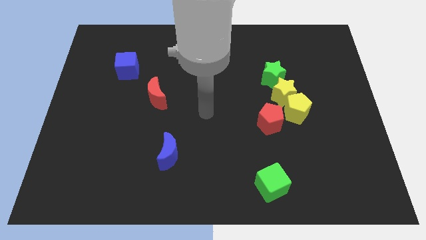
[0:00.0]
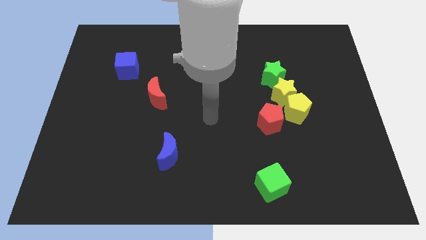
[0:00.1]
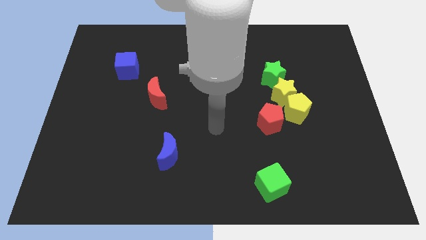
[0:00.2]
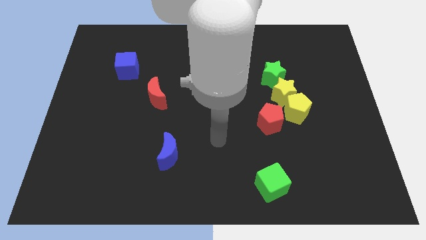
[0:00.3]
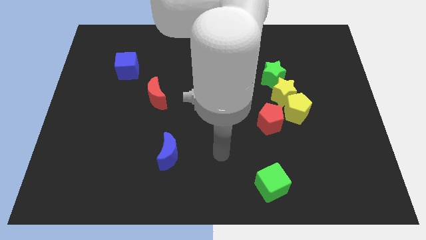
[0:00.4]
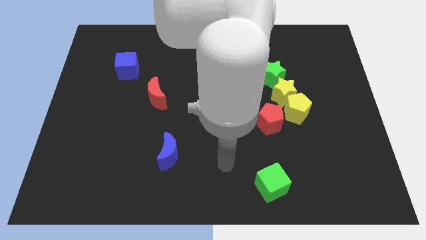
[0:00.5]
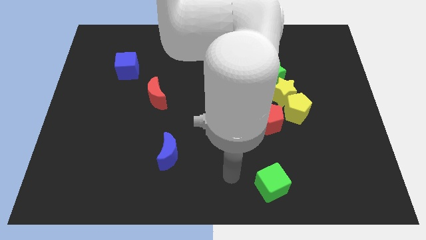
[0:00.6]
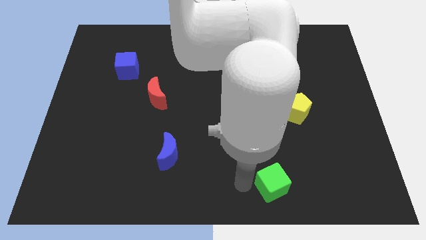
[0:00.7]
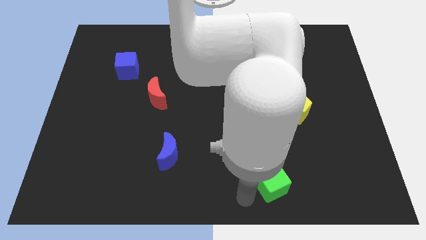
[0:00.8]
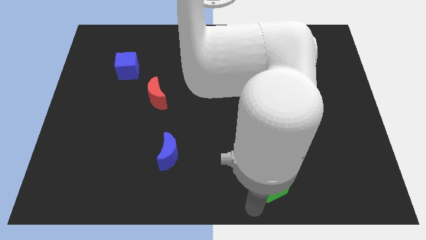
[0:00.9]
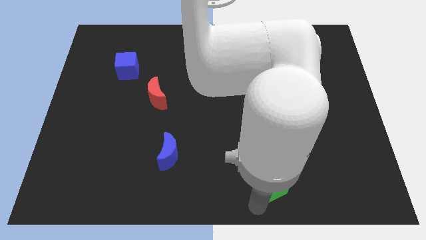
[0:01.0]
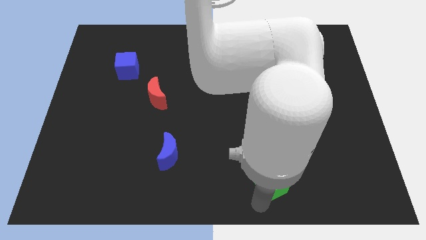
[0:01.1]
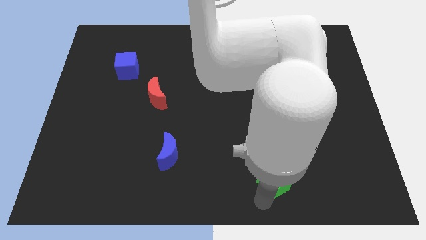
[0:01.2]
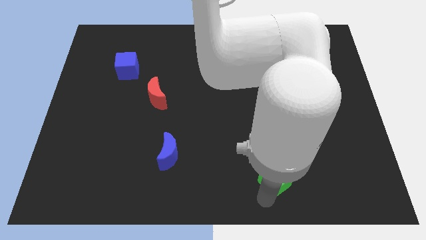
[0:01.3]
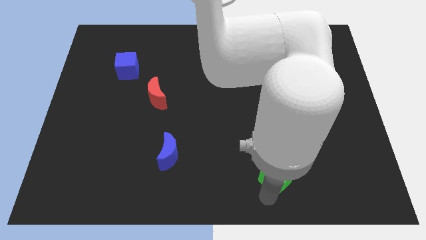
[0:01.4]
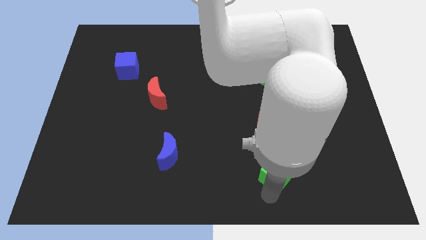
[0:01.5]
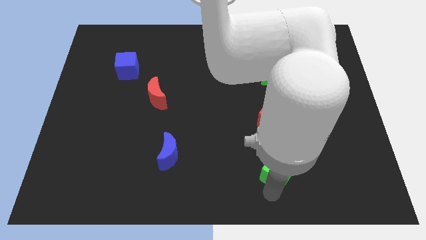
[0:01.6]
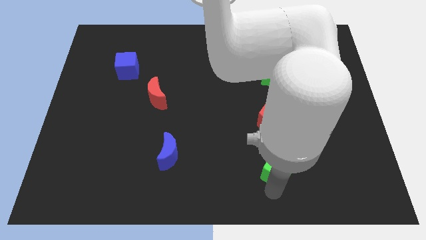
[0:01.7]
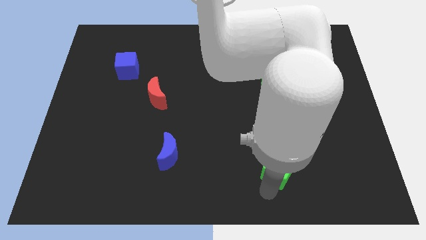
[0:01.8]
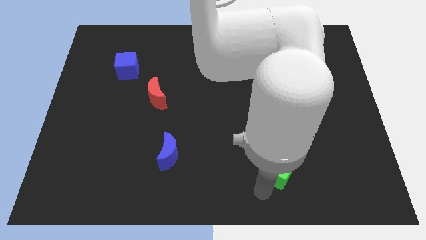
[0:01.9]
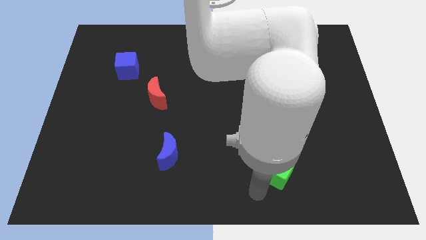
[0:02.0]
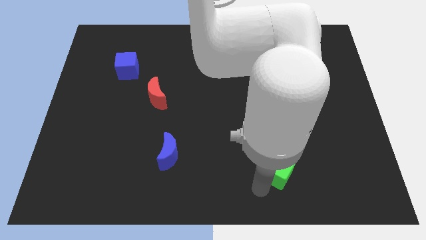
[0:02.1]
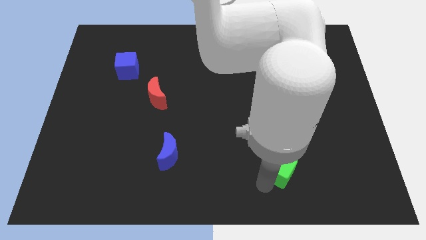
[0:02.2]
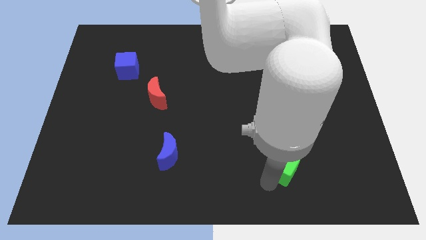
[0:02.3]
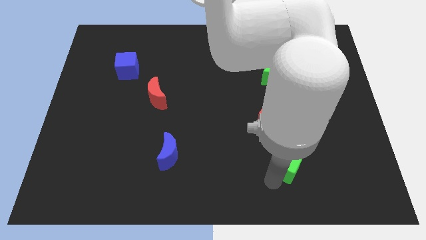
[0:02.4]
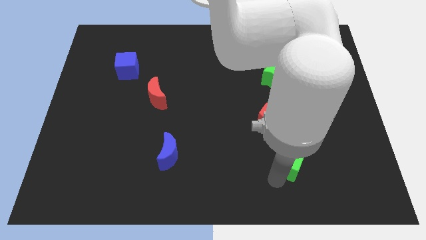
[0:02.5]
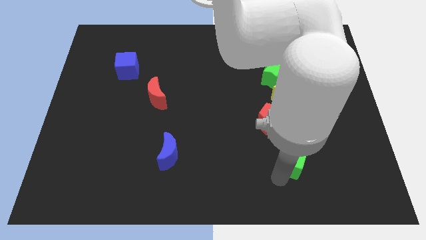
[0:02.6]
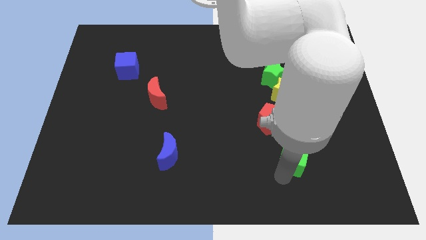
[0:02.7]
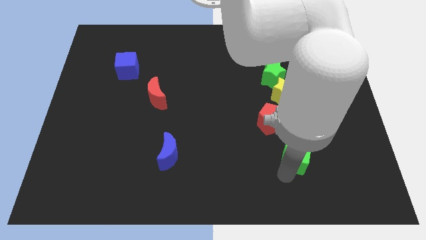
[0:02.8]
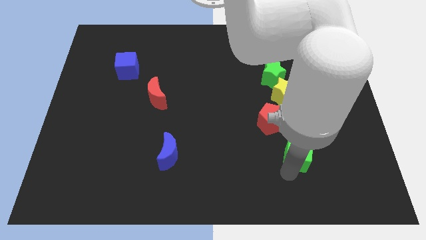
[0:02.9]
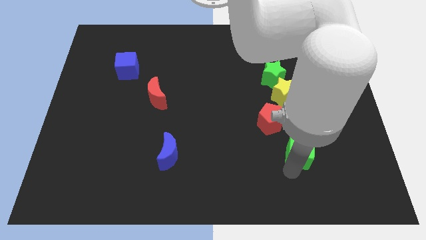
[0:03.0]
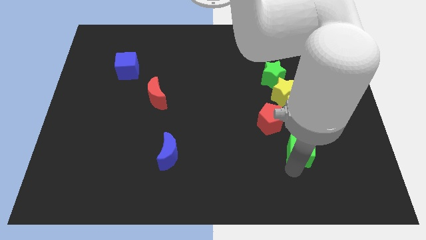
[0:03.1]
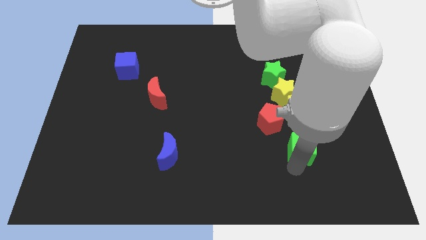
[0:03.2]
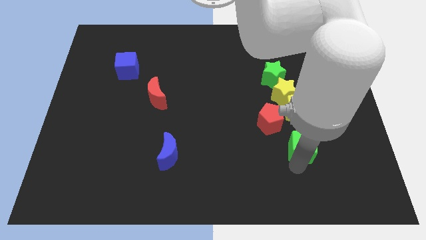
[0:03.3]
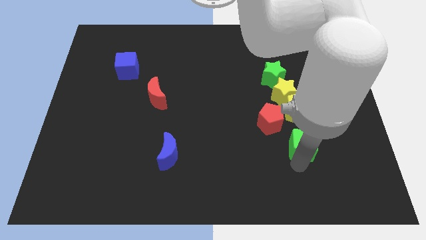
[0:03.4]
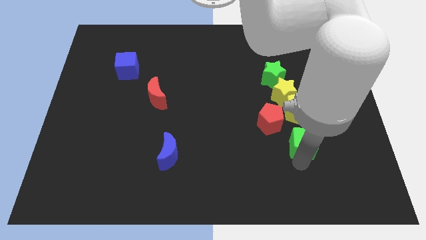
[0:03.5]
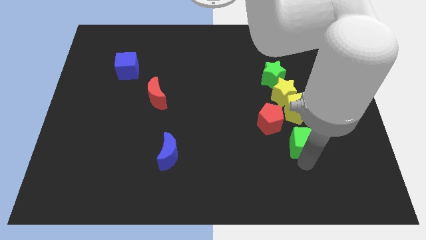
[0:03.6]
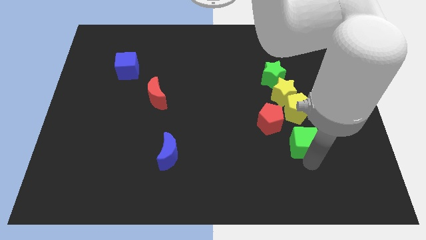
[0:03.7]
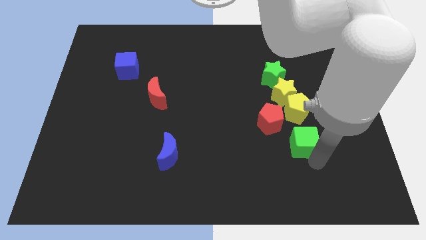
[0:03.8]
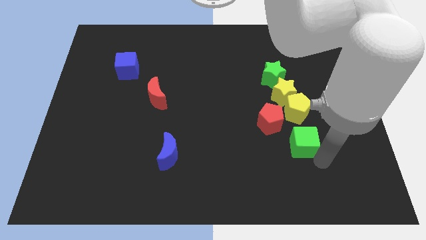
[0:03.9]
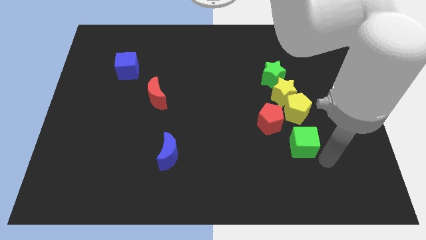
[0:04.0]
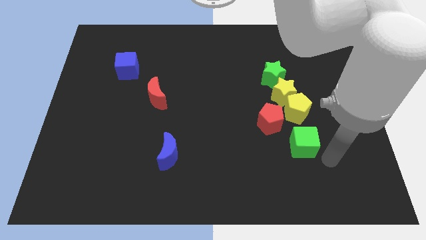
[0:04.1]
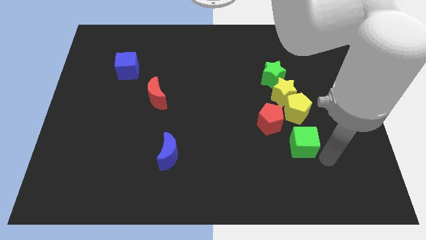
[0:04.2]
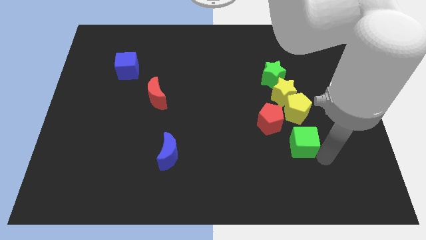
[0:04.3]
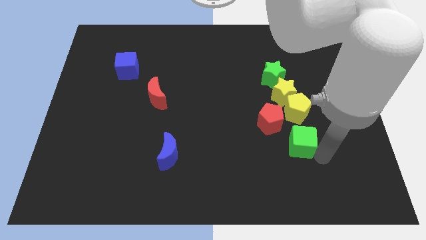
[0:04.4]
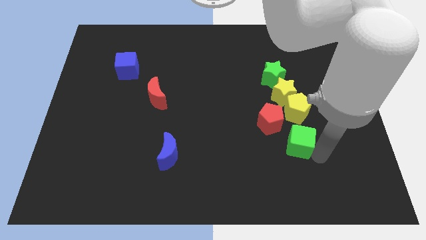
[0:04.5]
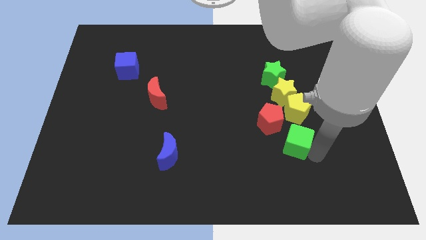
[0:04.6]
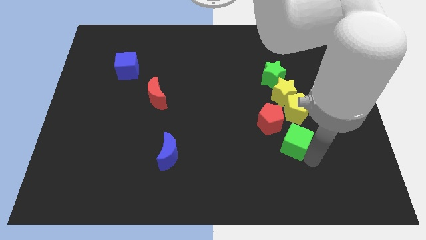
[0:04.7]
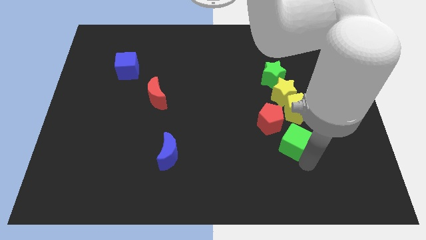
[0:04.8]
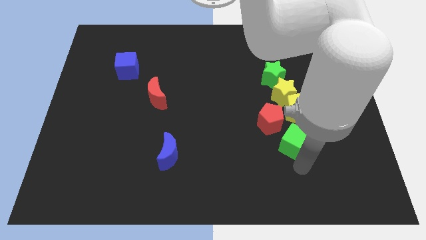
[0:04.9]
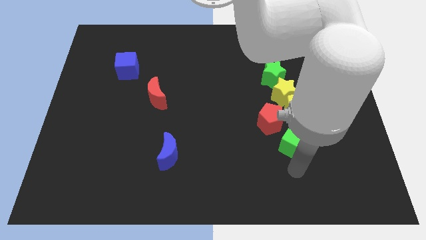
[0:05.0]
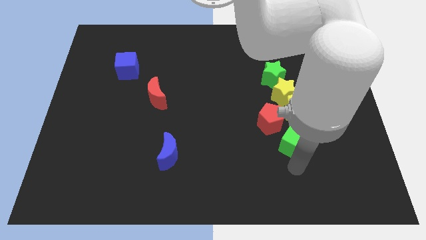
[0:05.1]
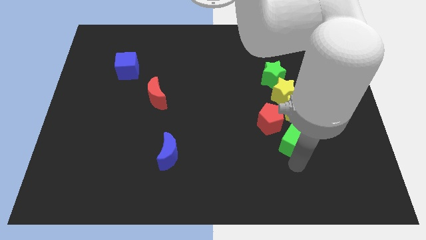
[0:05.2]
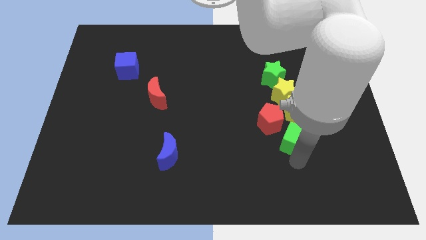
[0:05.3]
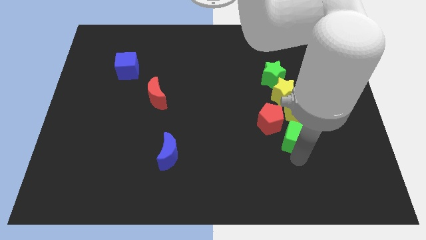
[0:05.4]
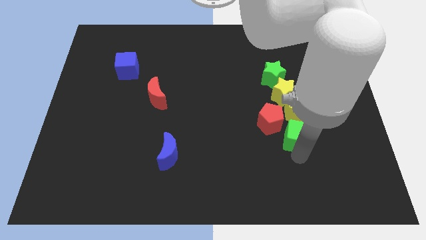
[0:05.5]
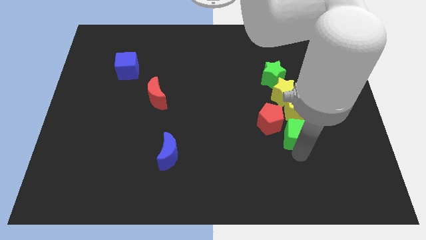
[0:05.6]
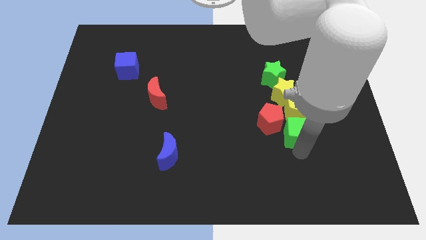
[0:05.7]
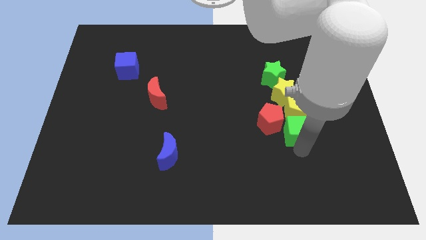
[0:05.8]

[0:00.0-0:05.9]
put the green cube towards the yellow pentagon

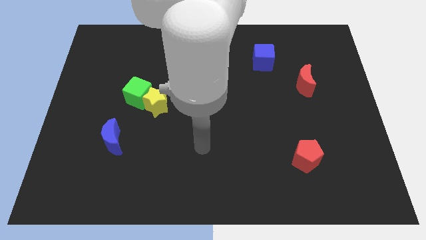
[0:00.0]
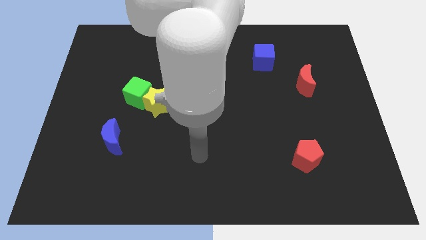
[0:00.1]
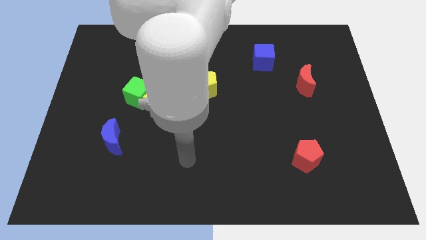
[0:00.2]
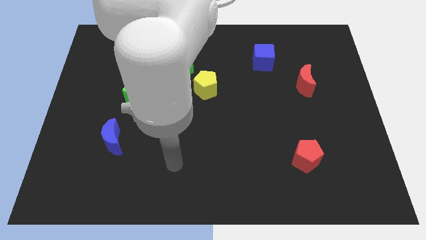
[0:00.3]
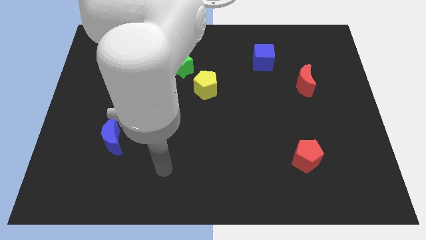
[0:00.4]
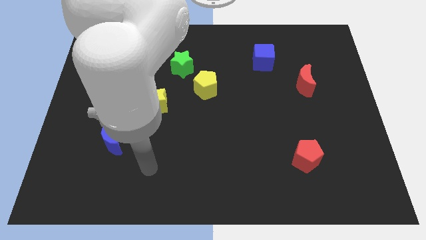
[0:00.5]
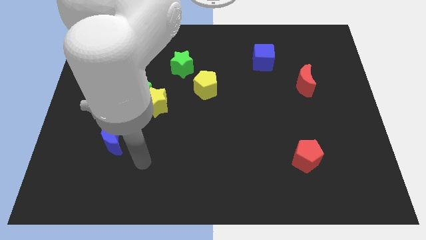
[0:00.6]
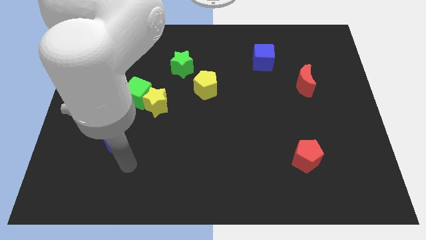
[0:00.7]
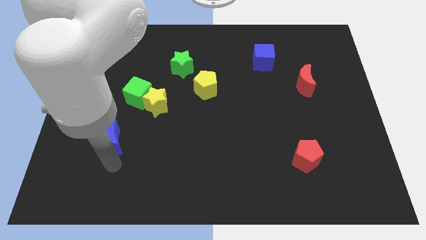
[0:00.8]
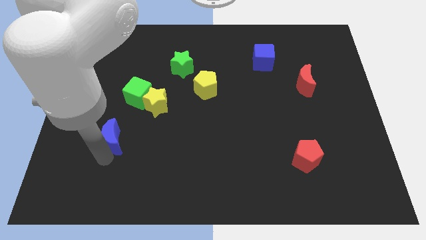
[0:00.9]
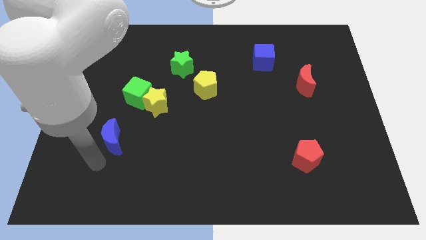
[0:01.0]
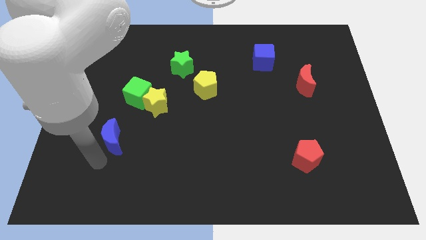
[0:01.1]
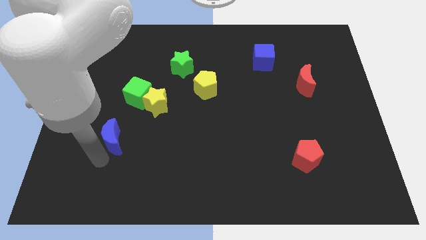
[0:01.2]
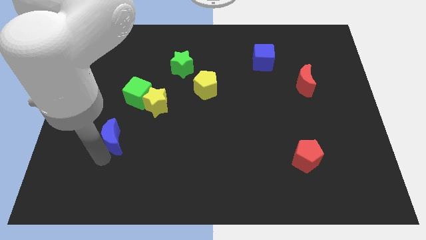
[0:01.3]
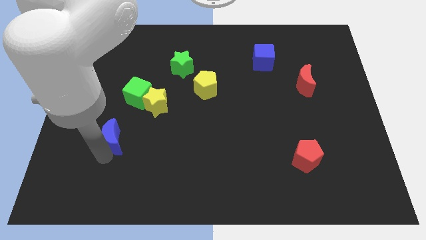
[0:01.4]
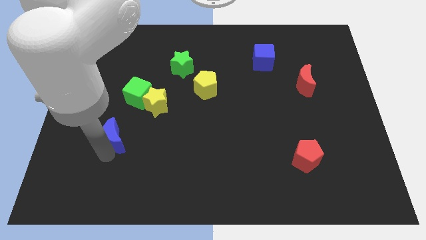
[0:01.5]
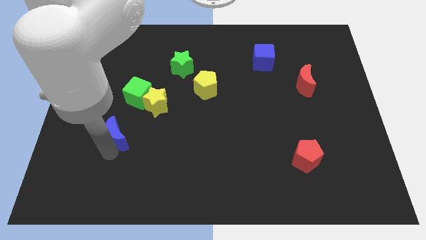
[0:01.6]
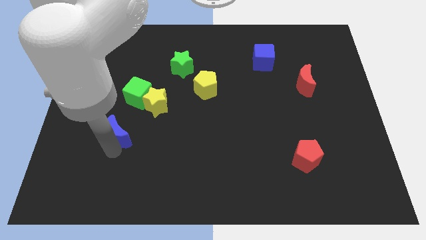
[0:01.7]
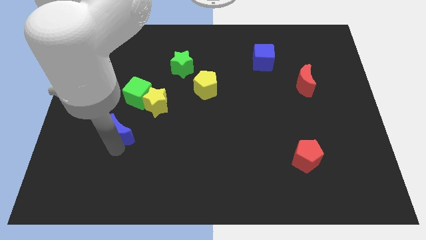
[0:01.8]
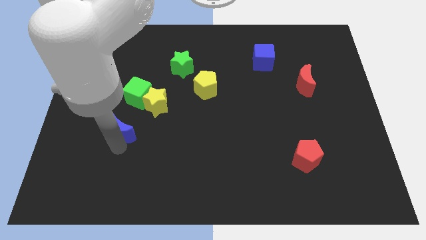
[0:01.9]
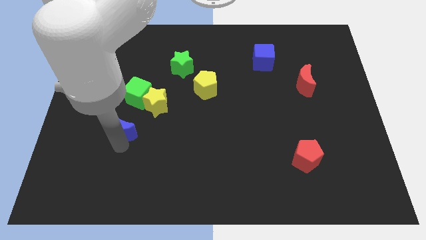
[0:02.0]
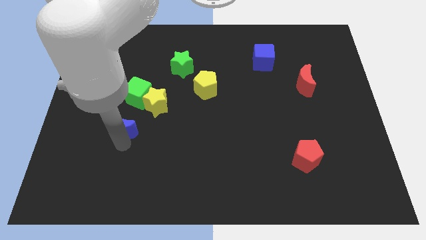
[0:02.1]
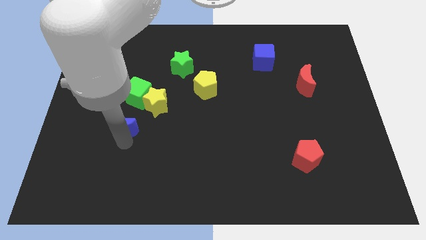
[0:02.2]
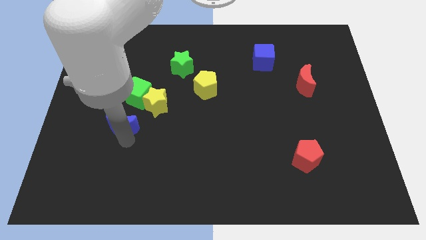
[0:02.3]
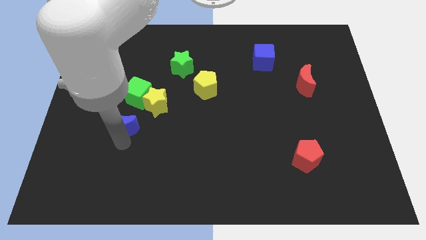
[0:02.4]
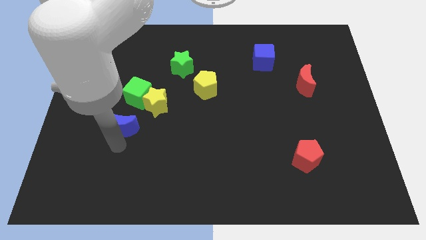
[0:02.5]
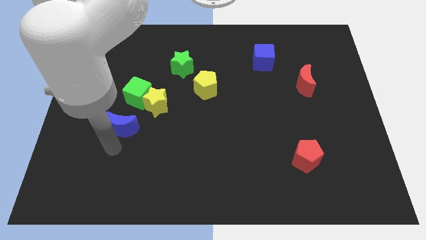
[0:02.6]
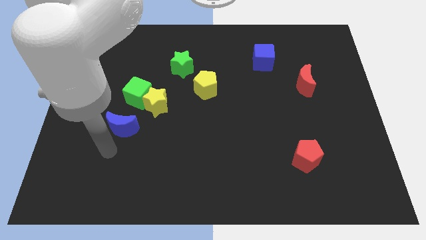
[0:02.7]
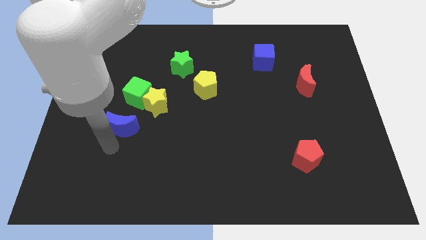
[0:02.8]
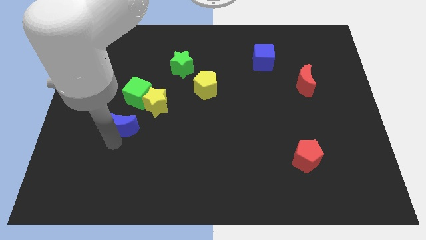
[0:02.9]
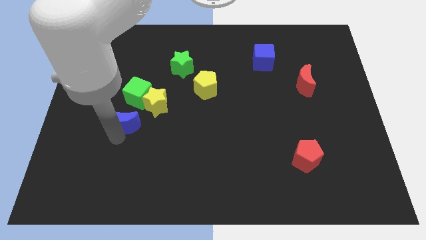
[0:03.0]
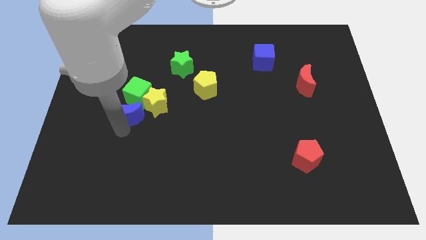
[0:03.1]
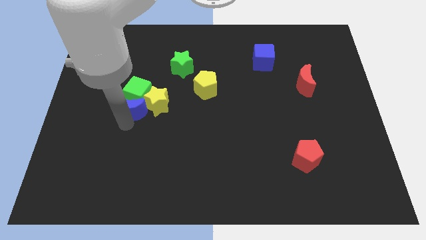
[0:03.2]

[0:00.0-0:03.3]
move the blue moon to the green cube
